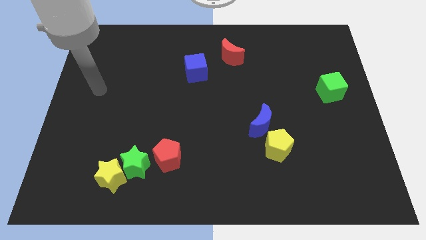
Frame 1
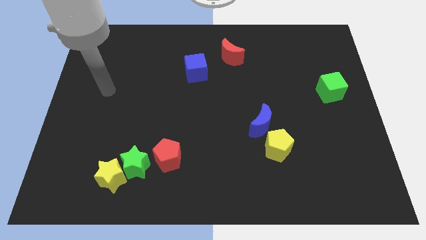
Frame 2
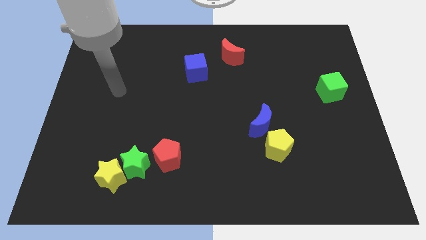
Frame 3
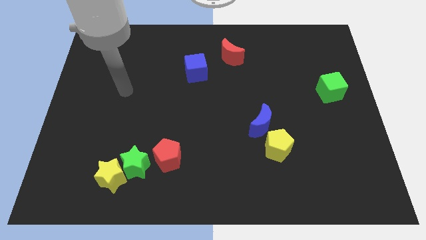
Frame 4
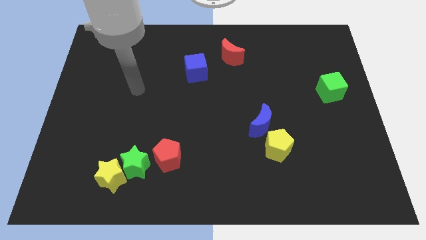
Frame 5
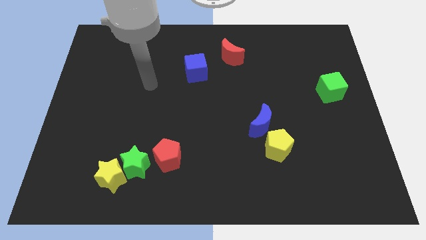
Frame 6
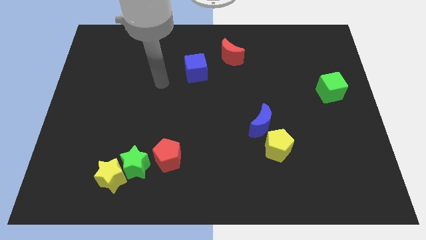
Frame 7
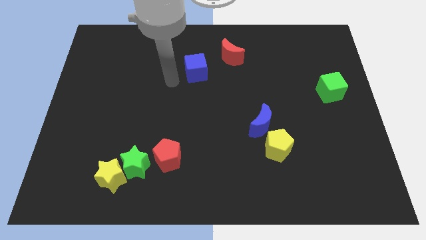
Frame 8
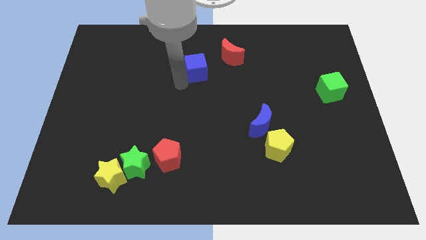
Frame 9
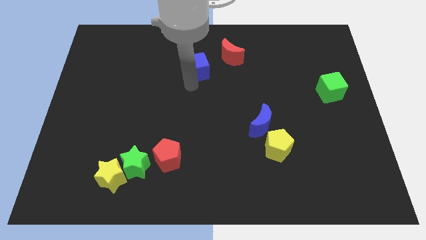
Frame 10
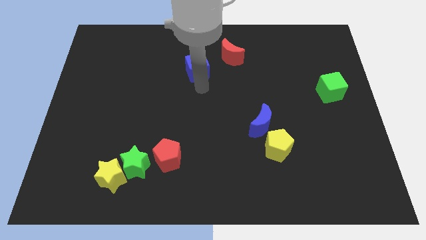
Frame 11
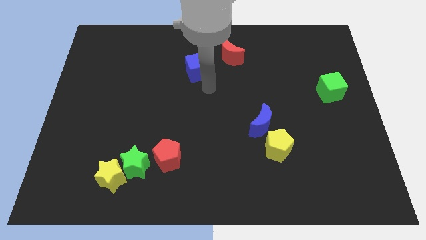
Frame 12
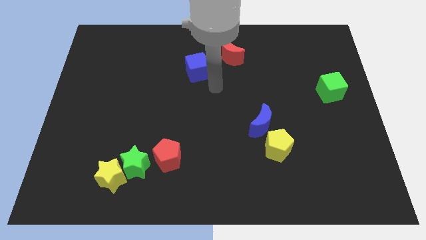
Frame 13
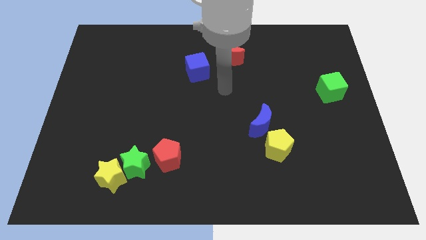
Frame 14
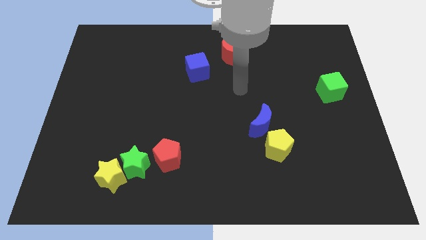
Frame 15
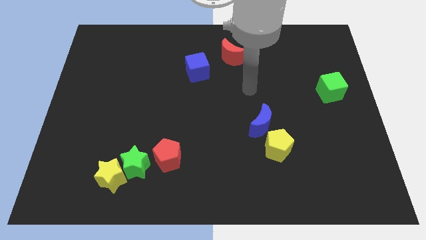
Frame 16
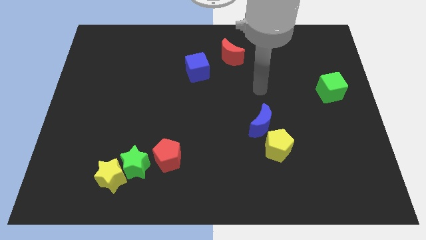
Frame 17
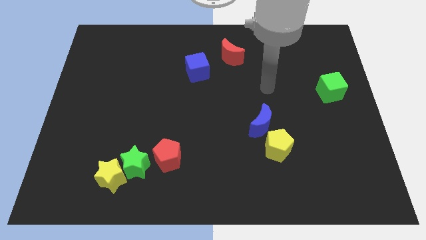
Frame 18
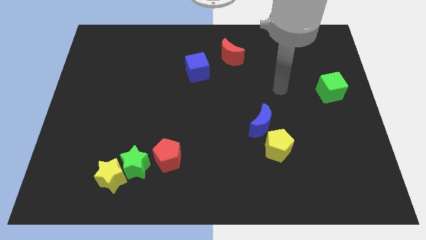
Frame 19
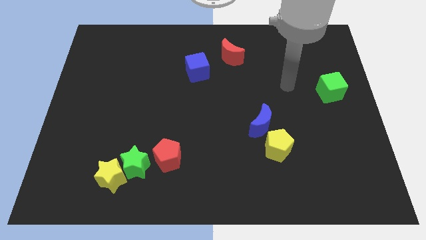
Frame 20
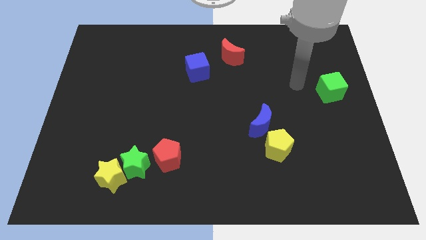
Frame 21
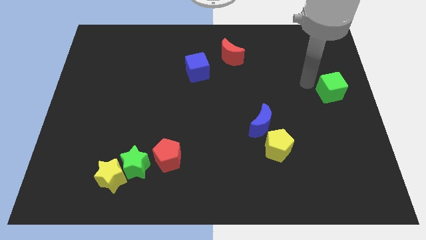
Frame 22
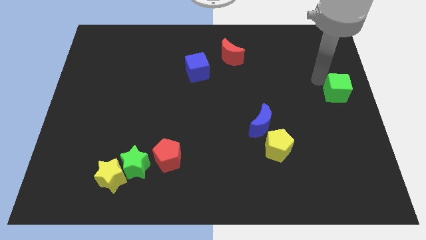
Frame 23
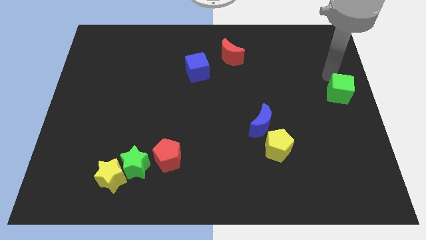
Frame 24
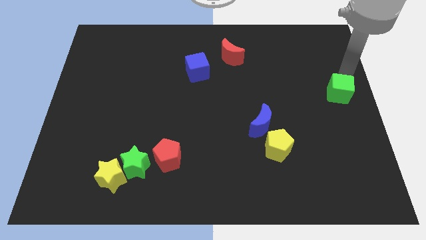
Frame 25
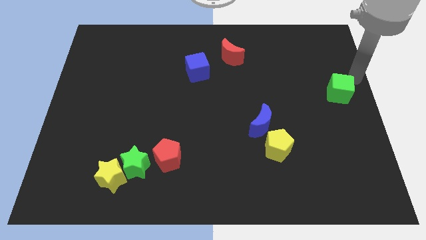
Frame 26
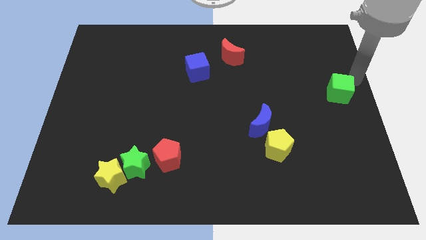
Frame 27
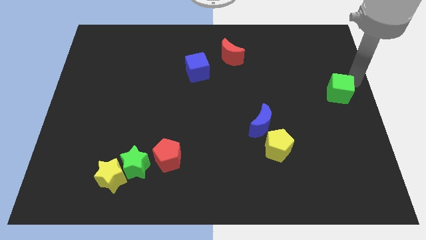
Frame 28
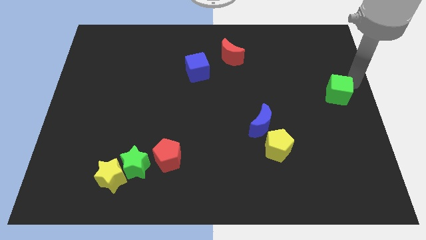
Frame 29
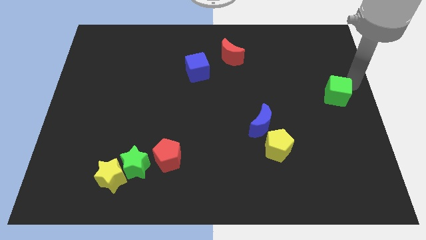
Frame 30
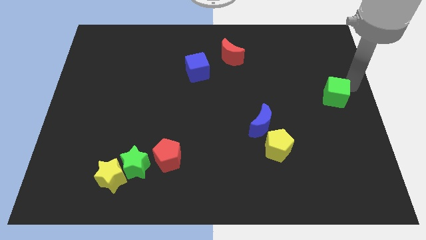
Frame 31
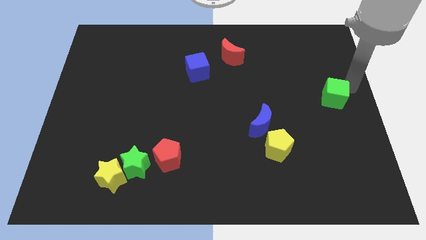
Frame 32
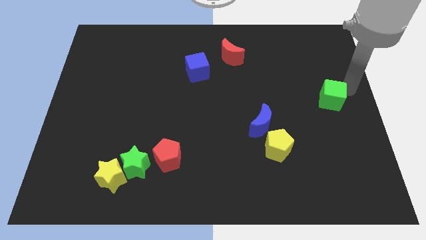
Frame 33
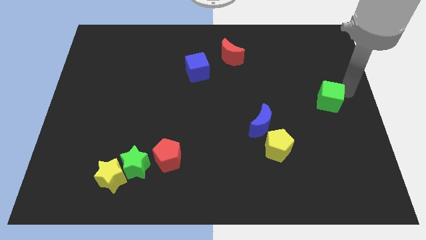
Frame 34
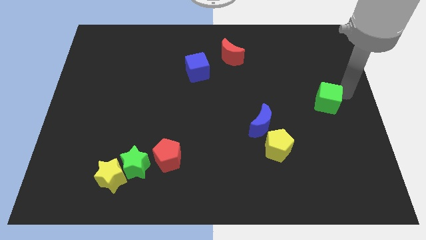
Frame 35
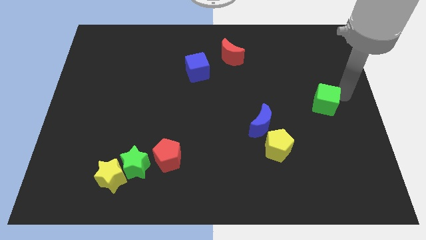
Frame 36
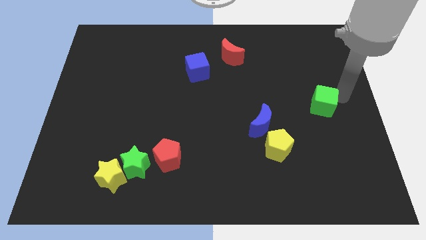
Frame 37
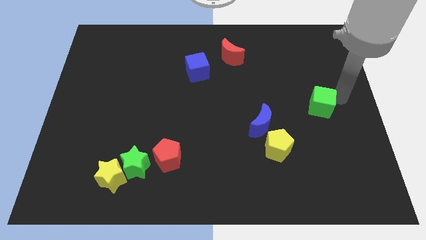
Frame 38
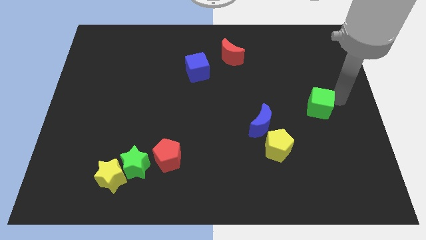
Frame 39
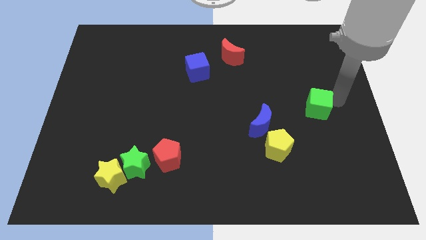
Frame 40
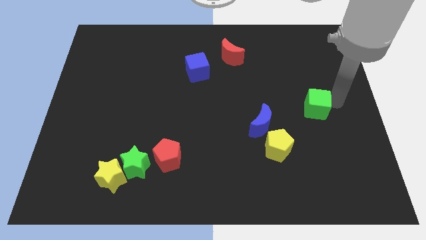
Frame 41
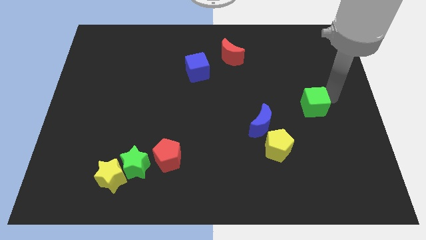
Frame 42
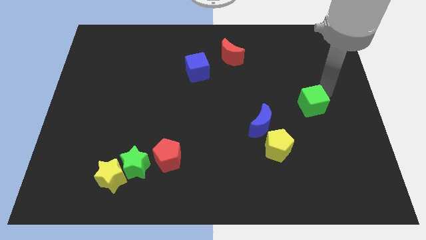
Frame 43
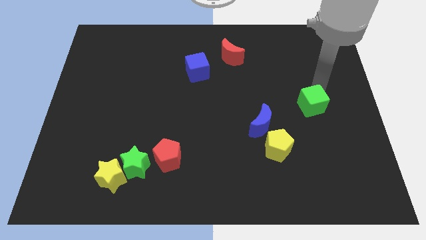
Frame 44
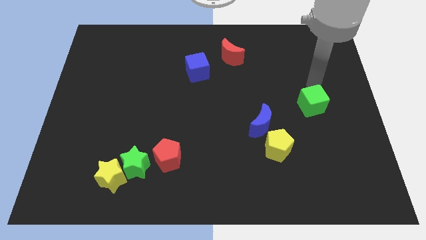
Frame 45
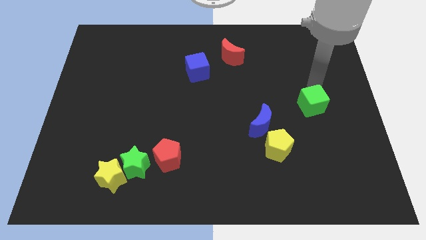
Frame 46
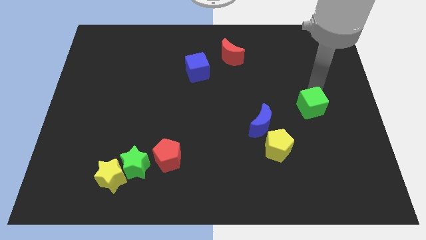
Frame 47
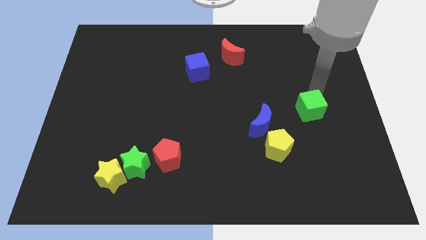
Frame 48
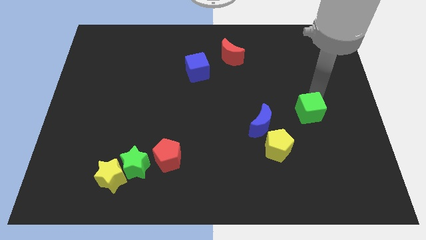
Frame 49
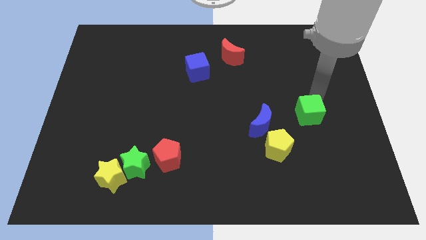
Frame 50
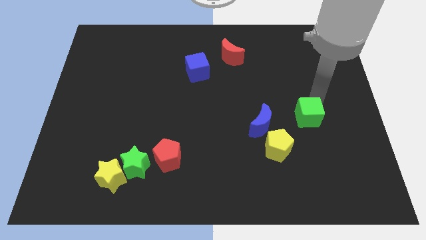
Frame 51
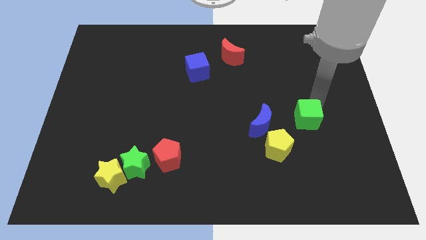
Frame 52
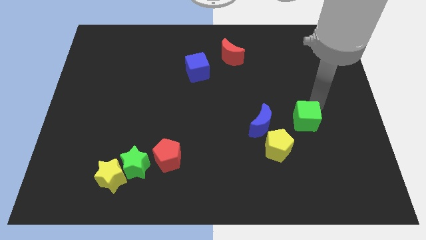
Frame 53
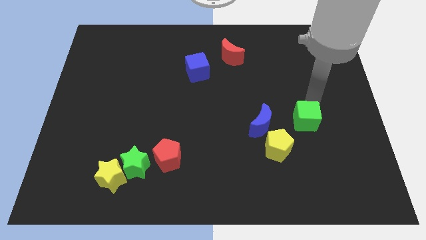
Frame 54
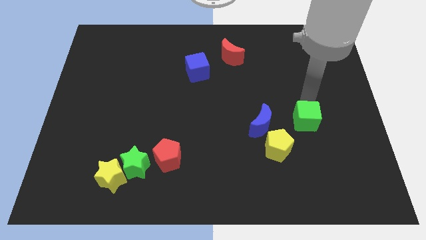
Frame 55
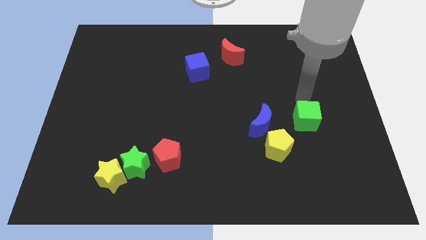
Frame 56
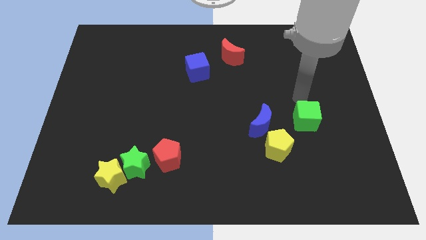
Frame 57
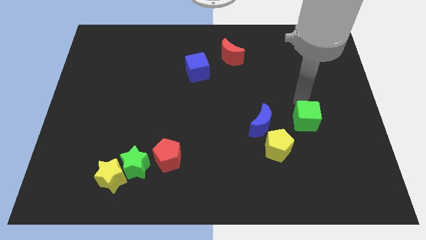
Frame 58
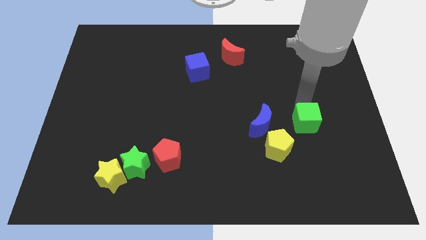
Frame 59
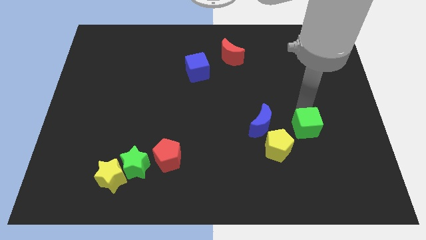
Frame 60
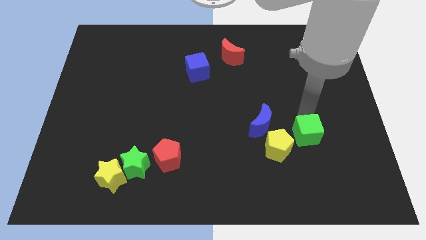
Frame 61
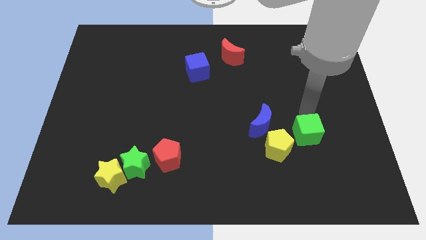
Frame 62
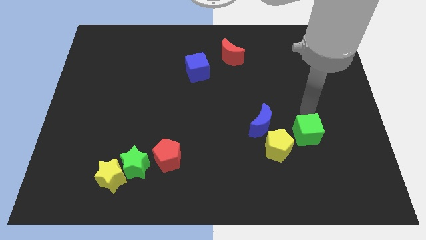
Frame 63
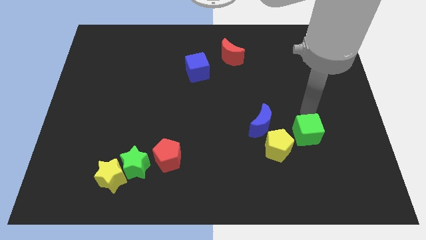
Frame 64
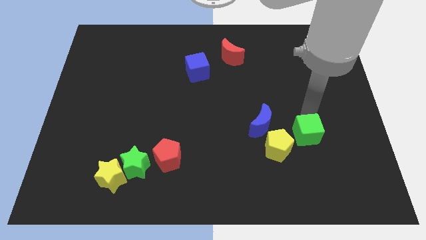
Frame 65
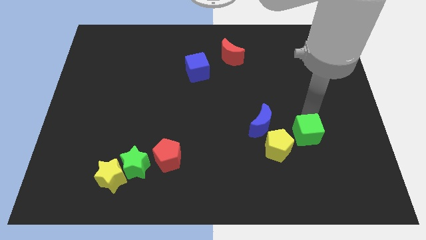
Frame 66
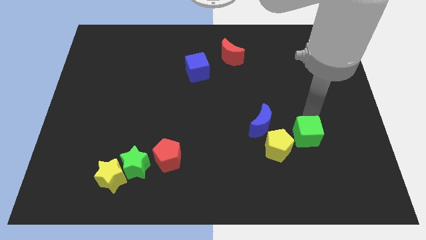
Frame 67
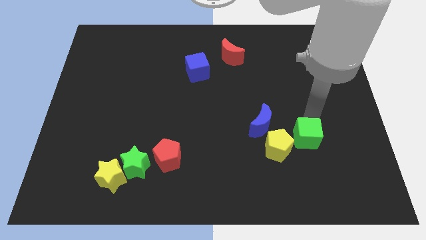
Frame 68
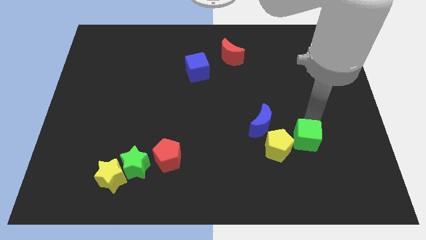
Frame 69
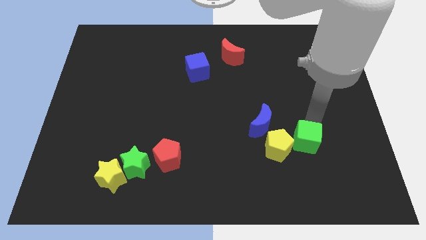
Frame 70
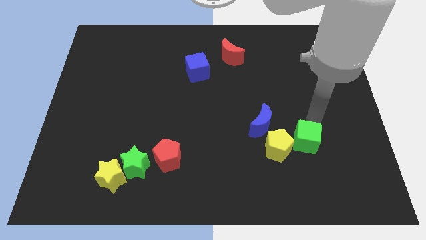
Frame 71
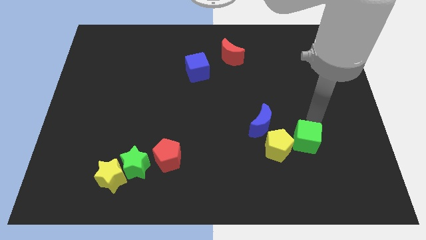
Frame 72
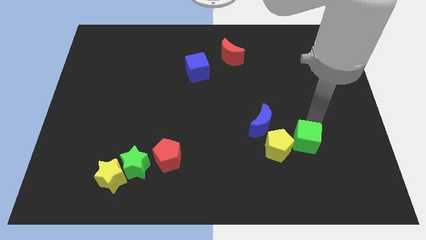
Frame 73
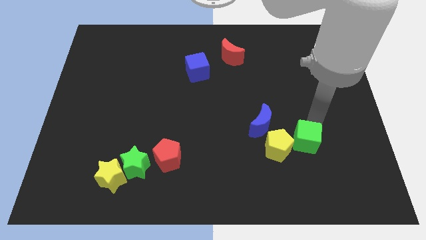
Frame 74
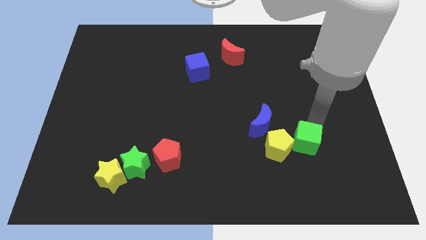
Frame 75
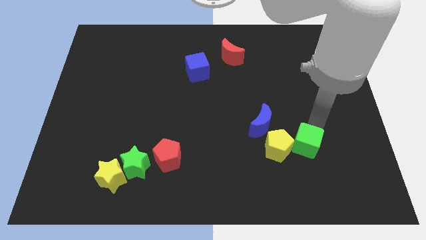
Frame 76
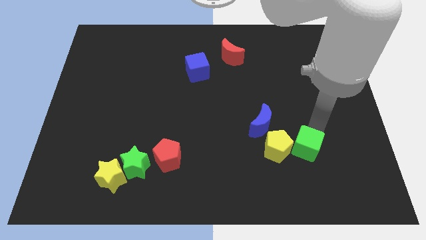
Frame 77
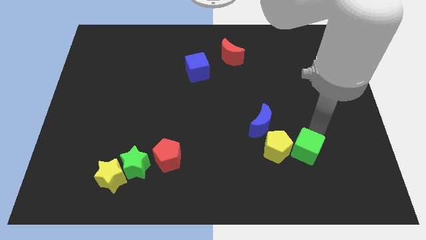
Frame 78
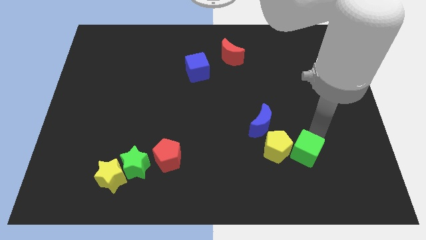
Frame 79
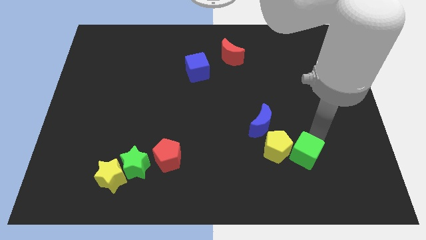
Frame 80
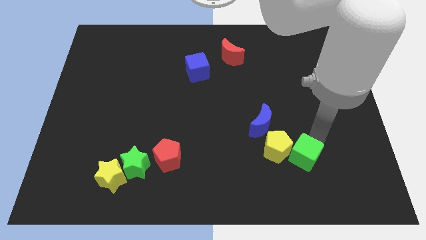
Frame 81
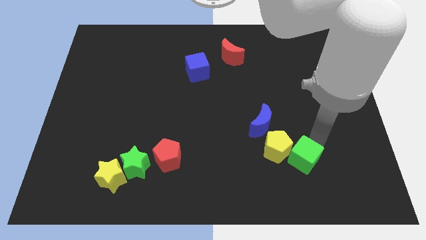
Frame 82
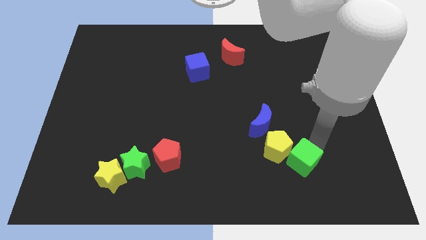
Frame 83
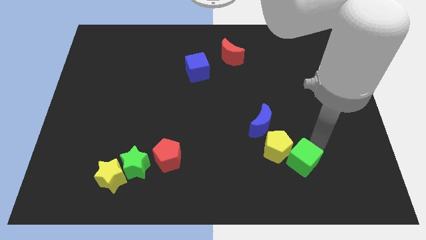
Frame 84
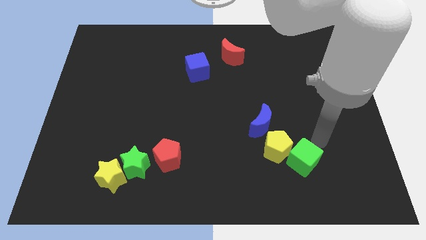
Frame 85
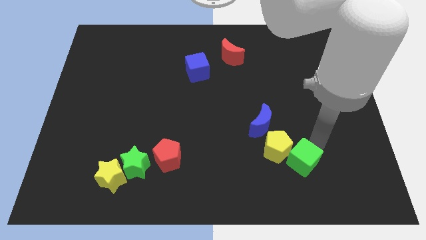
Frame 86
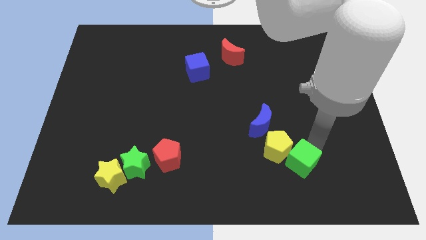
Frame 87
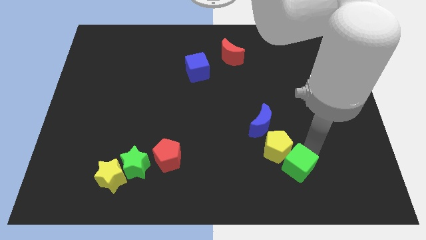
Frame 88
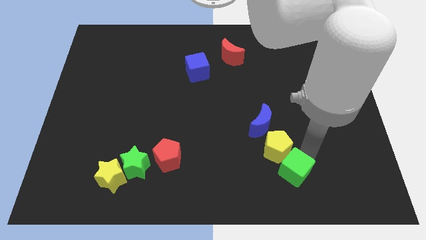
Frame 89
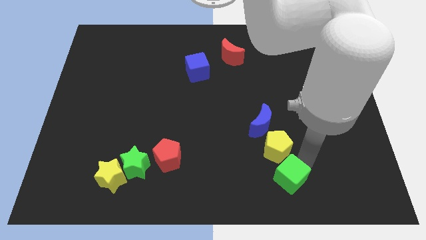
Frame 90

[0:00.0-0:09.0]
push the green cube to the bottom side of the blue moon
